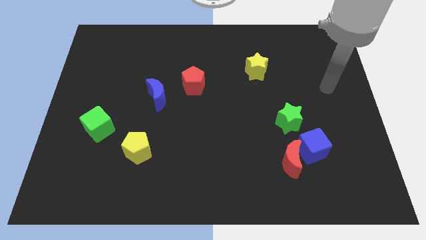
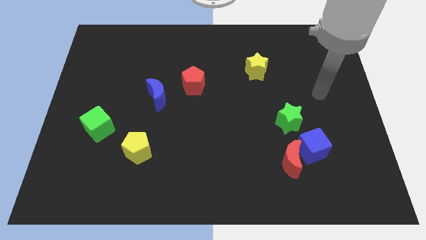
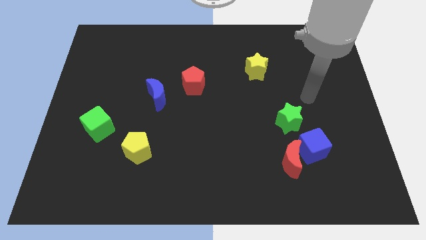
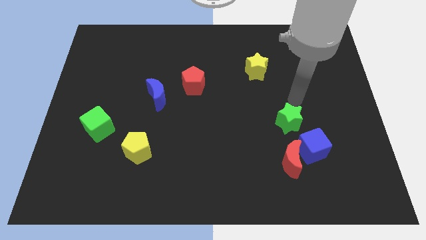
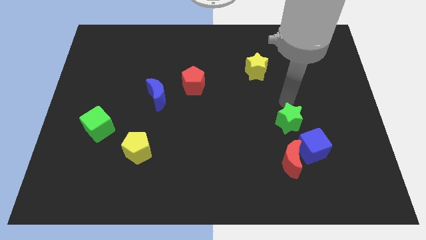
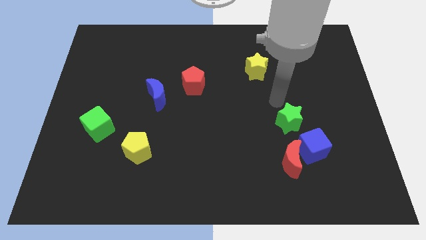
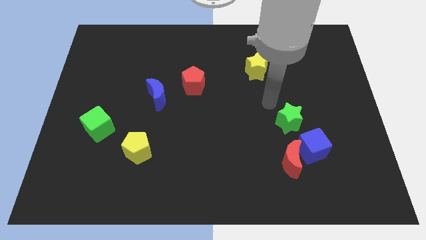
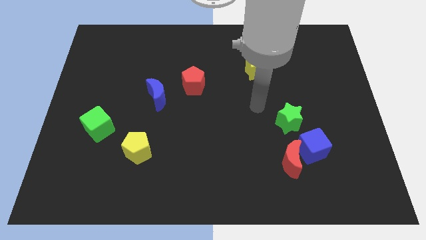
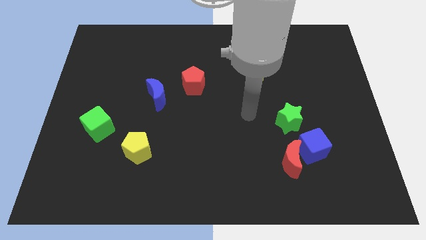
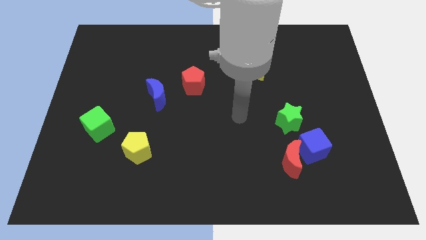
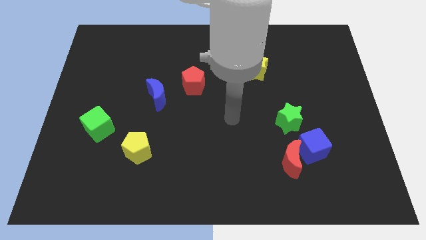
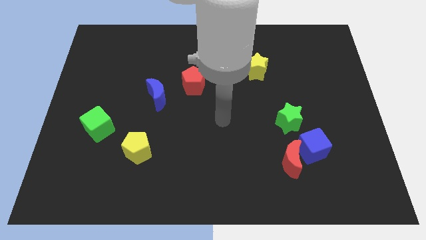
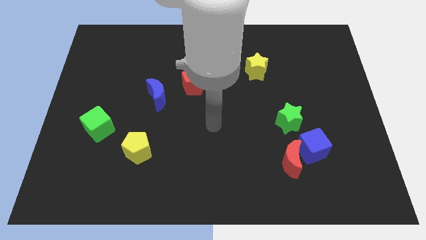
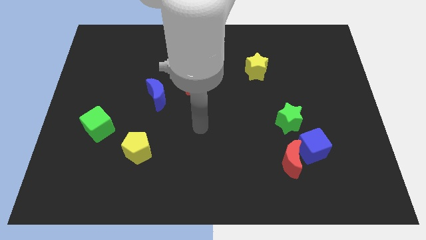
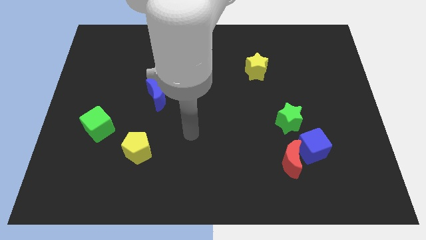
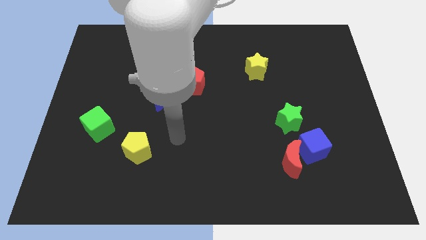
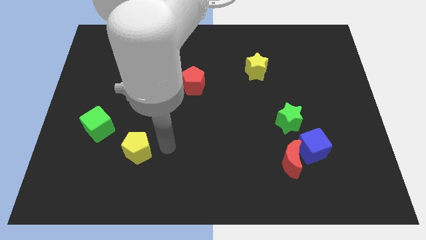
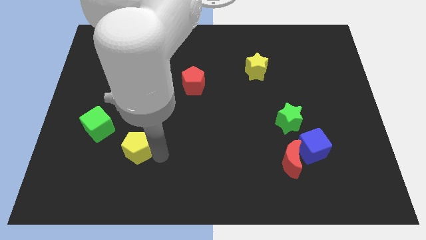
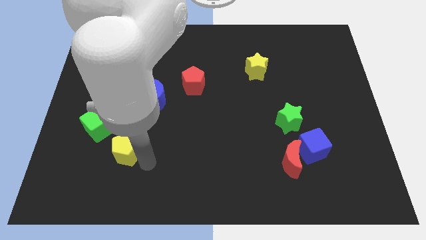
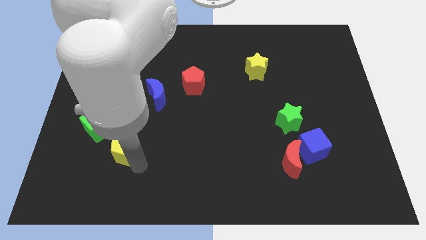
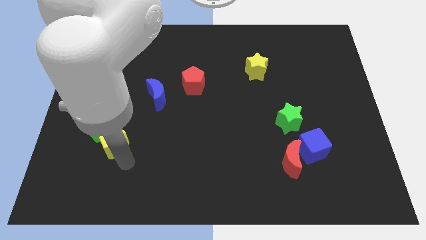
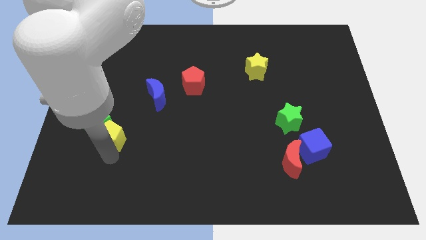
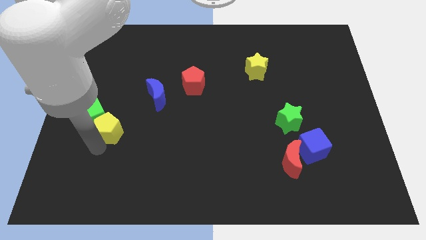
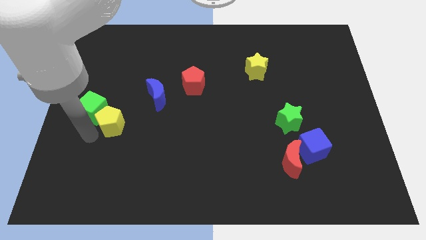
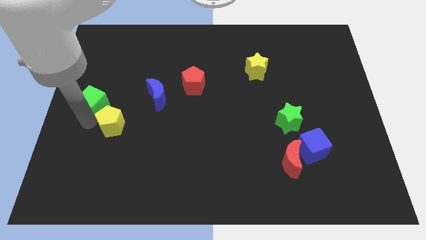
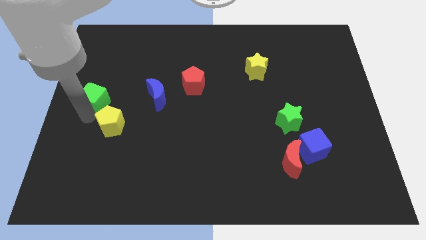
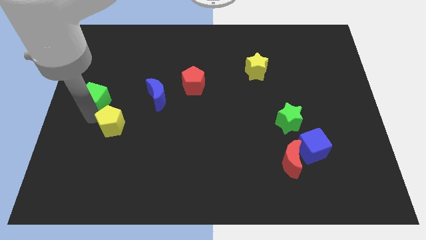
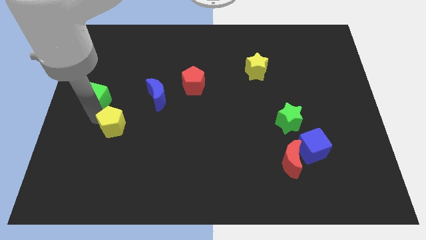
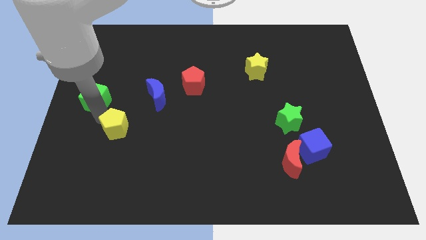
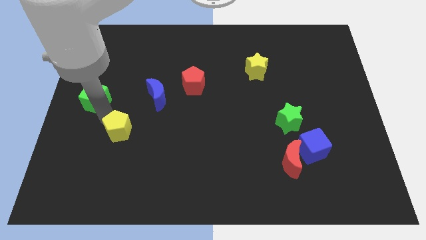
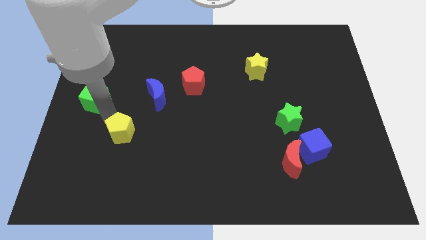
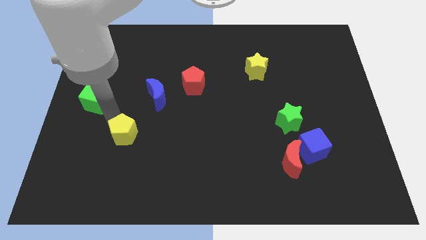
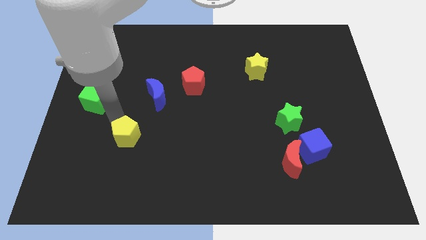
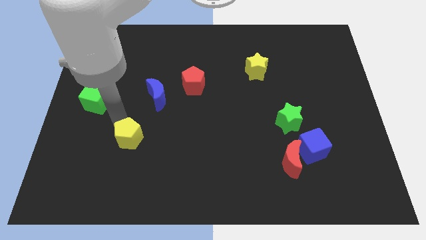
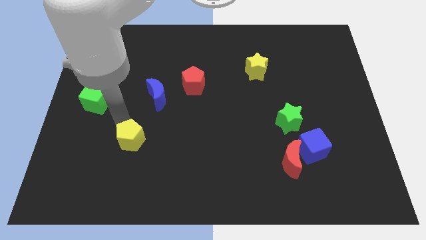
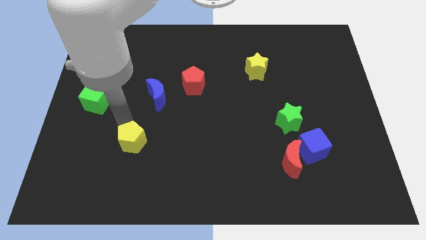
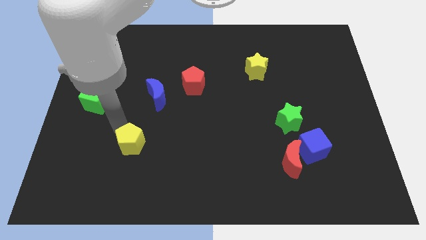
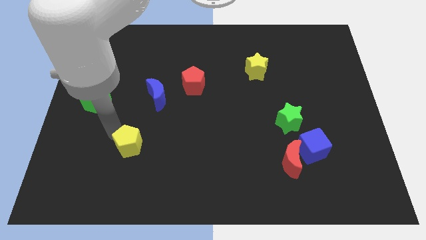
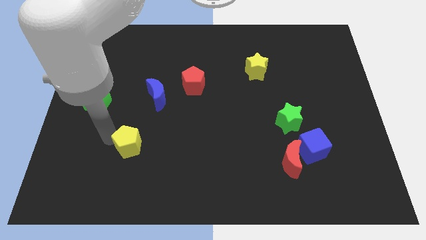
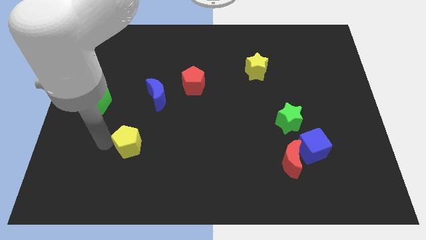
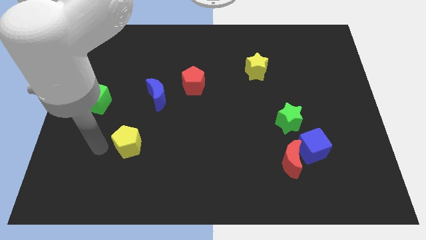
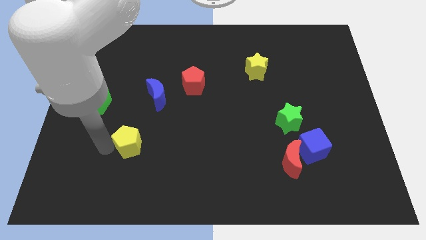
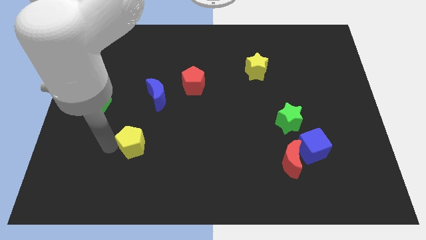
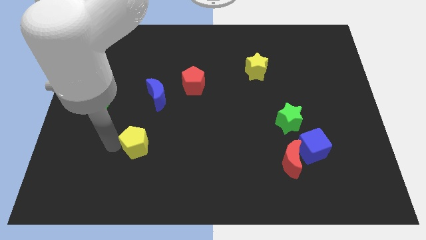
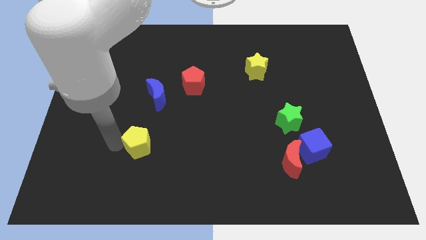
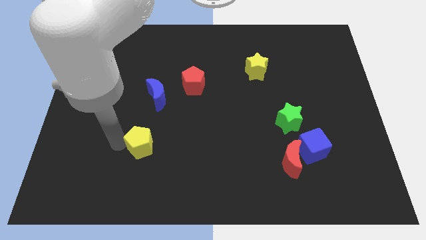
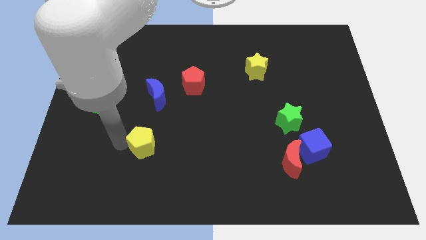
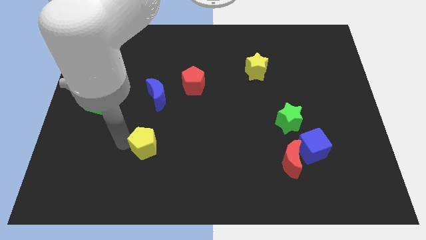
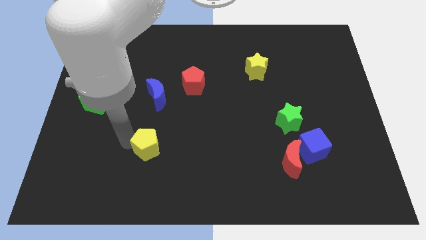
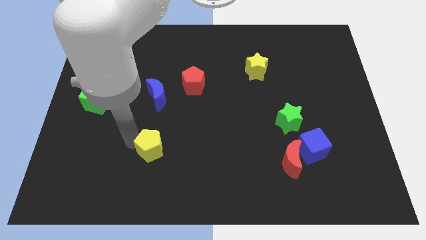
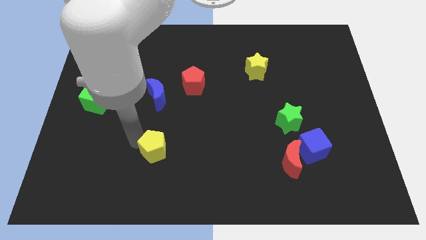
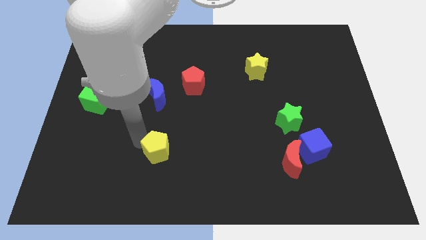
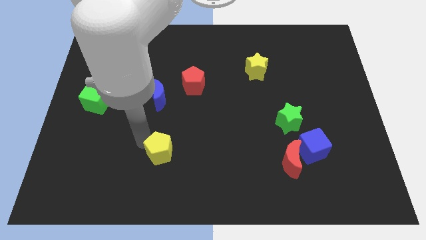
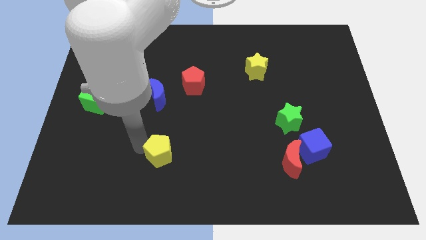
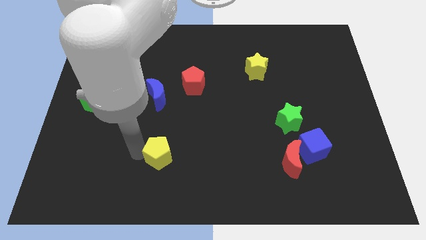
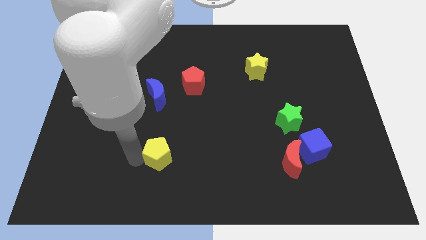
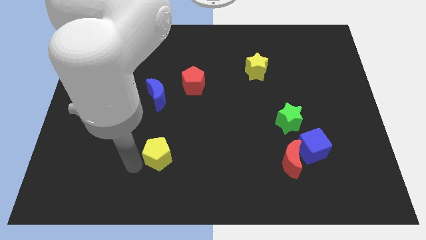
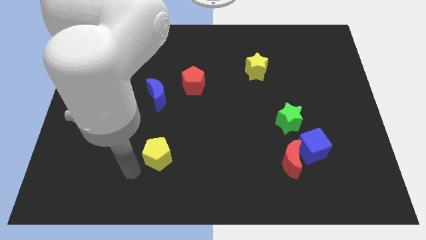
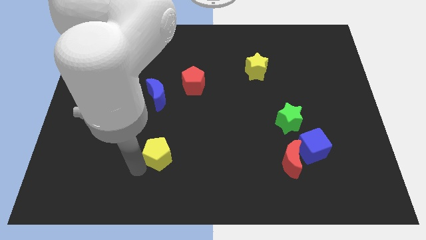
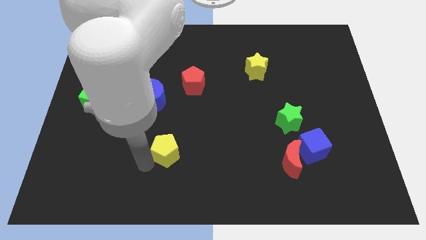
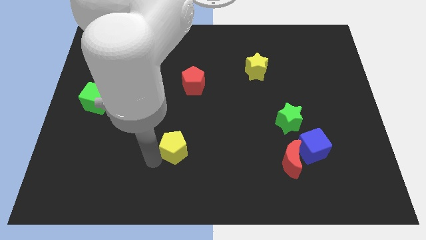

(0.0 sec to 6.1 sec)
push the yellow pentagon slightly right

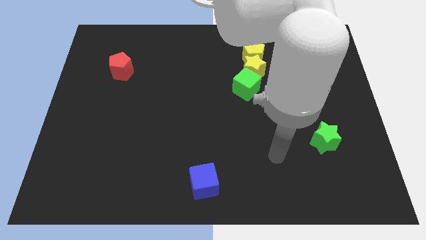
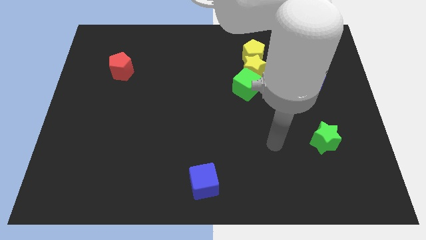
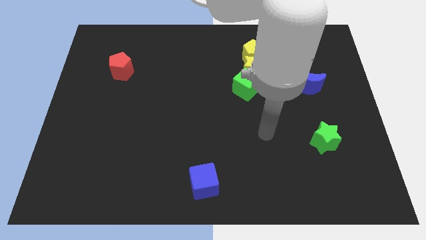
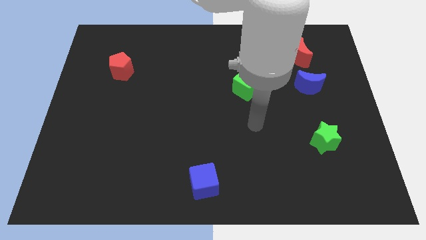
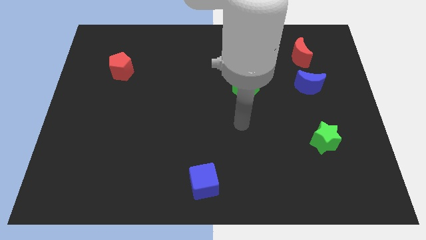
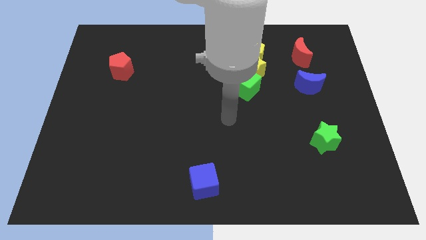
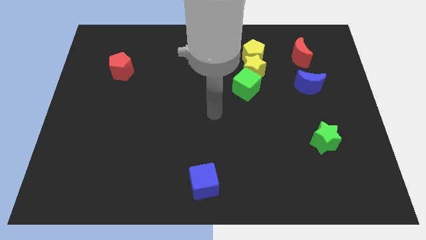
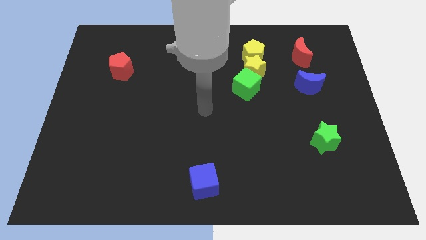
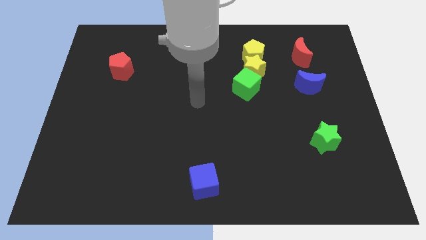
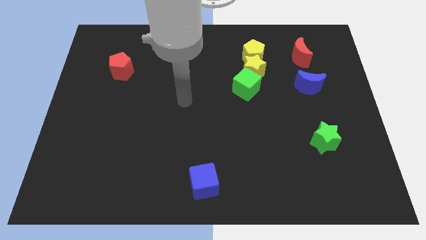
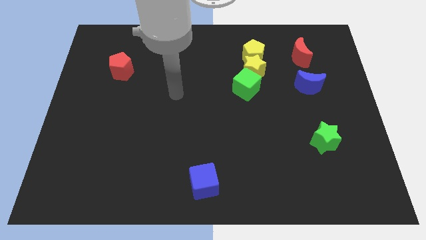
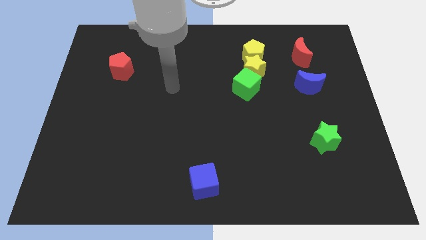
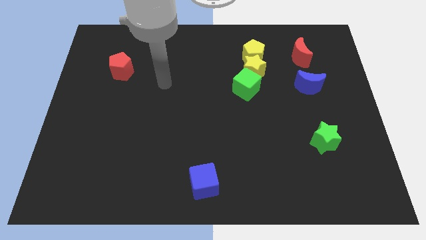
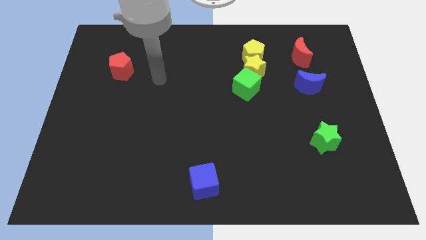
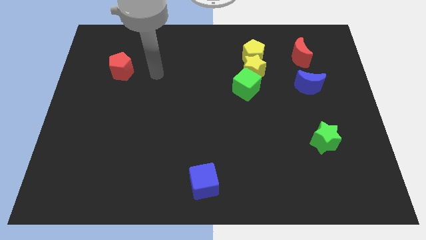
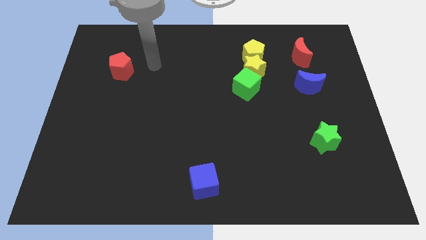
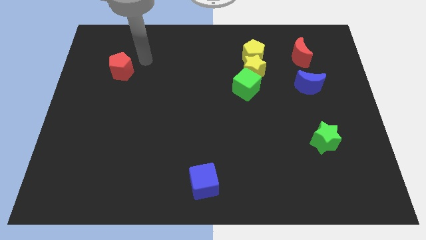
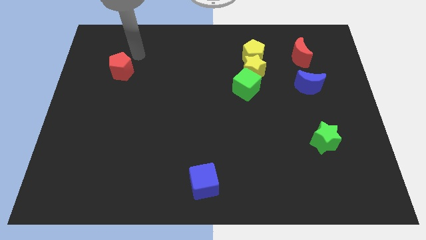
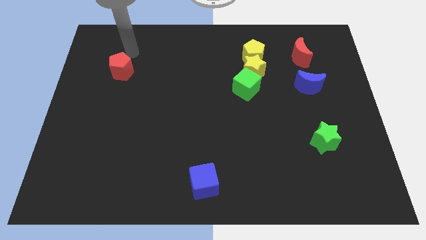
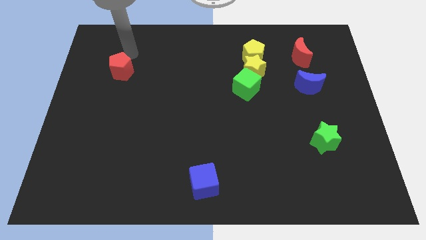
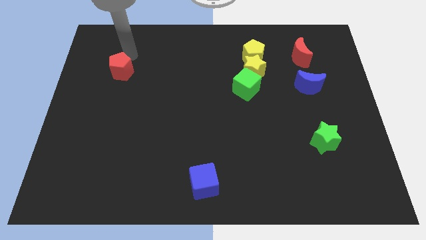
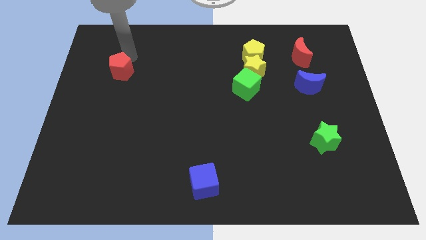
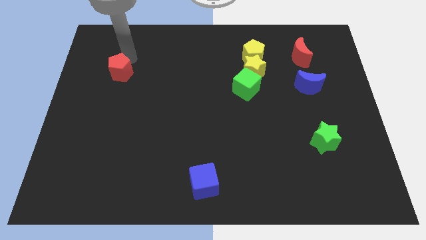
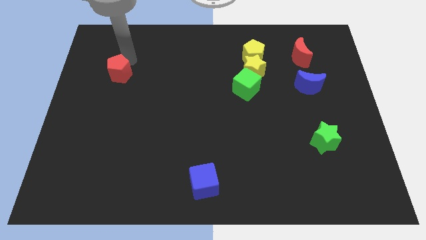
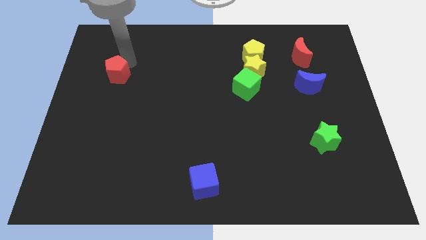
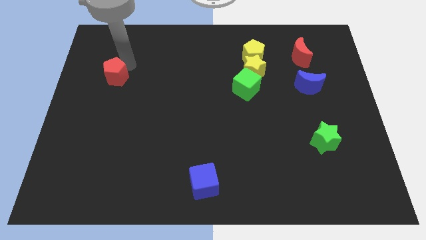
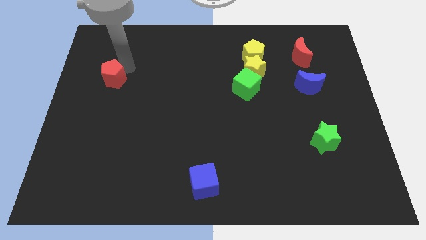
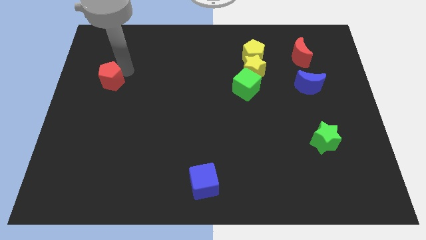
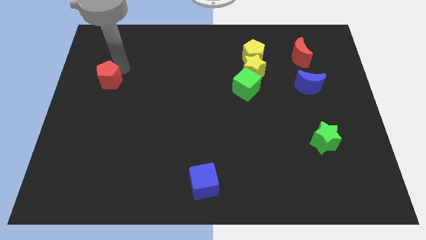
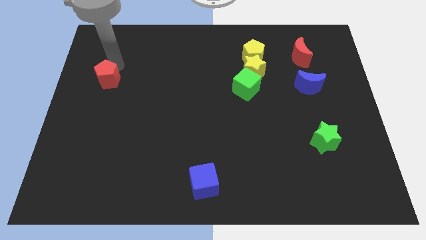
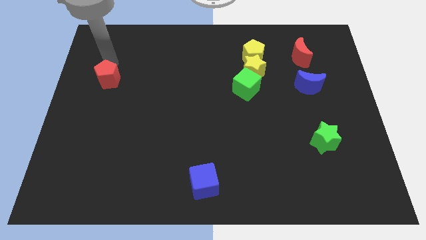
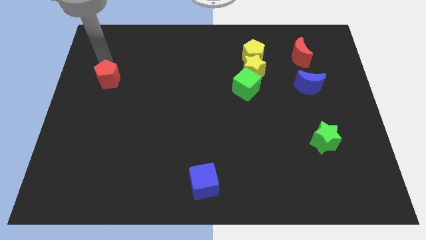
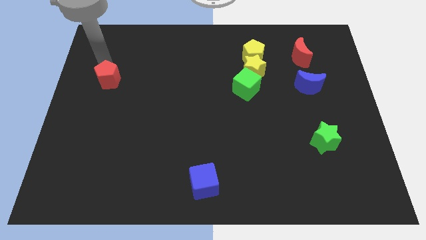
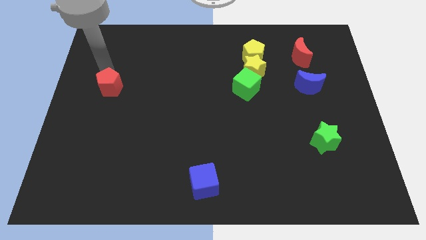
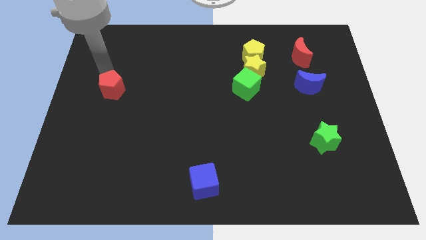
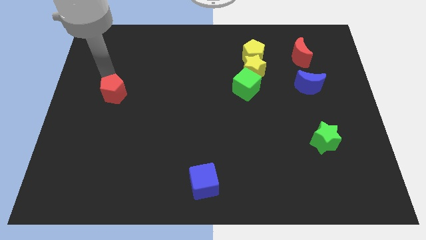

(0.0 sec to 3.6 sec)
slightly move the red pentagon down
